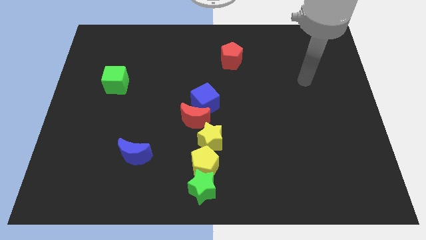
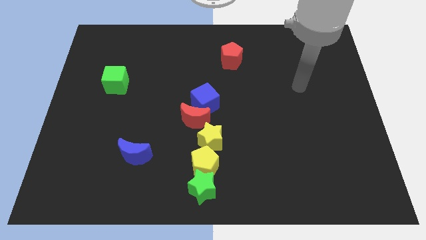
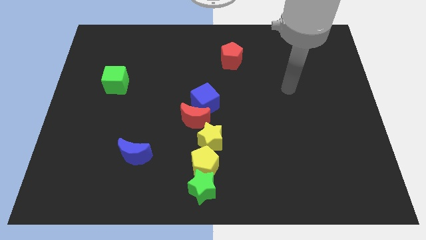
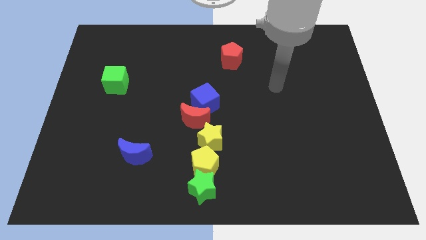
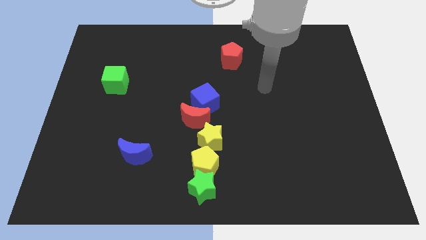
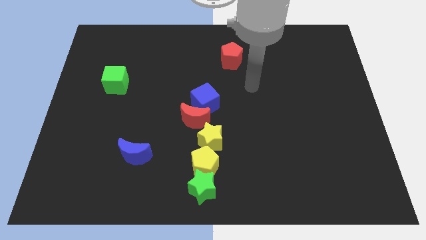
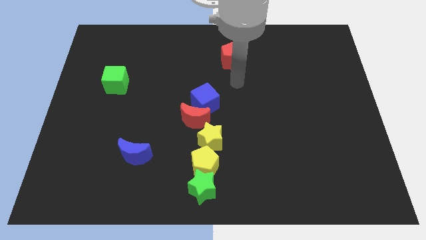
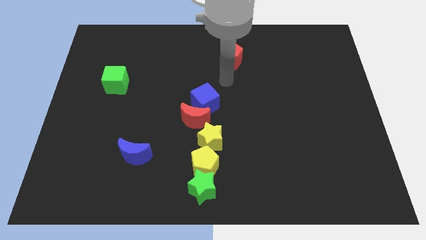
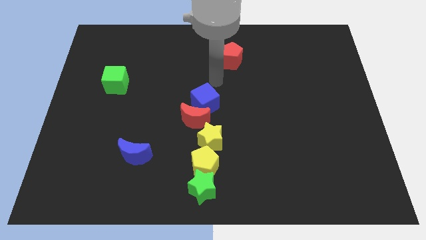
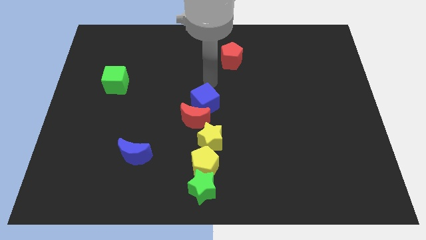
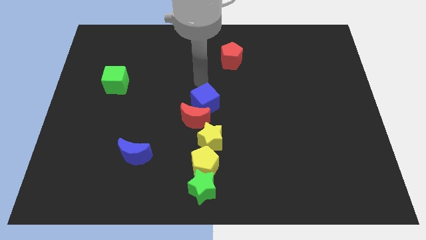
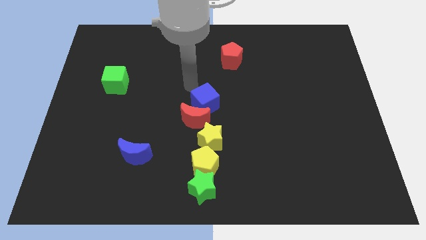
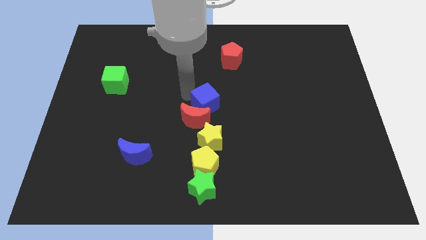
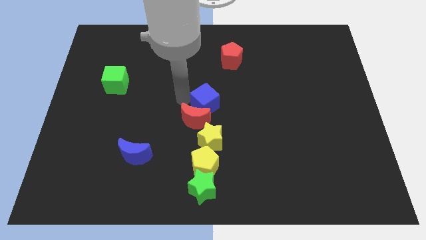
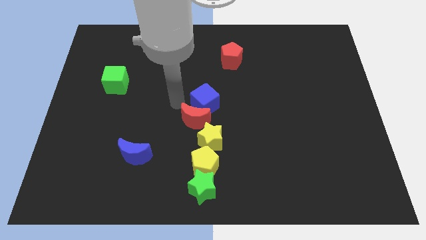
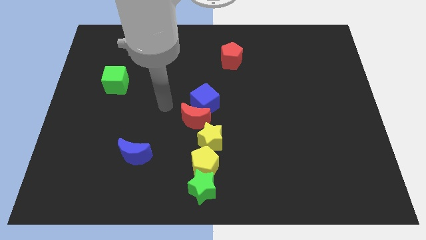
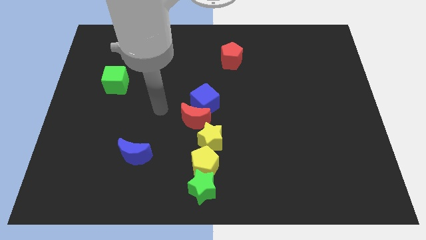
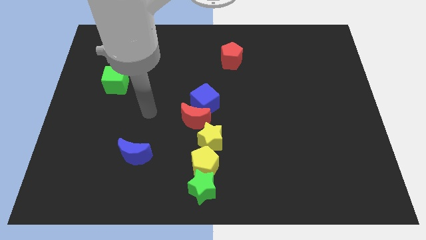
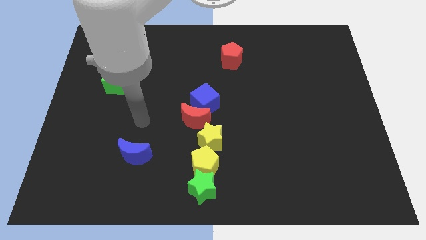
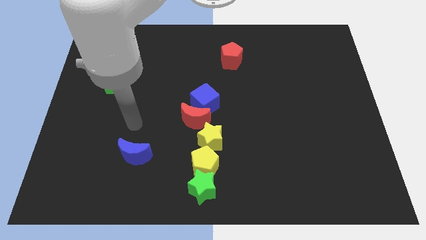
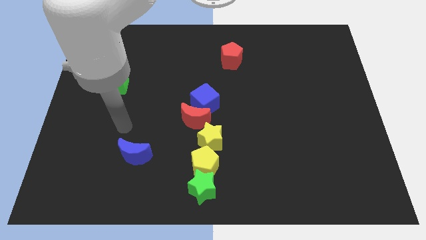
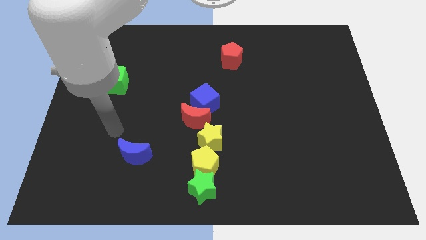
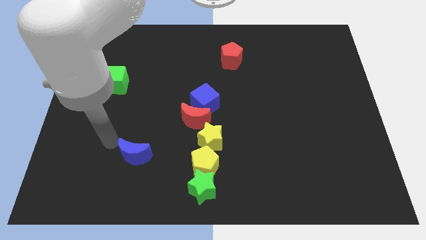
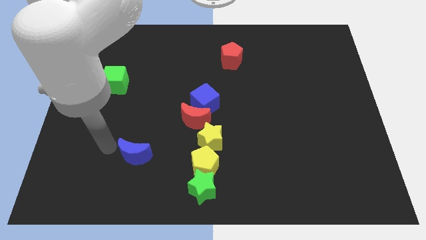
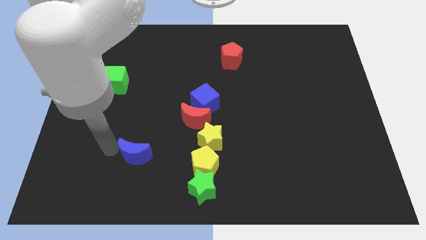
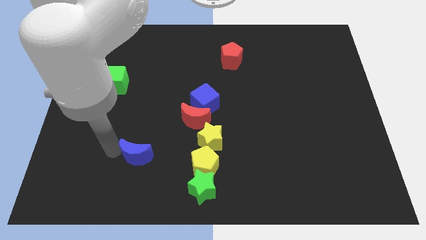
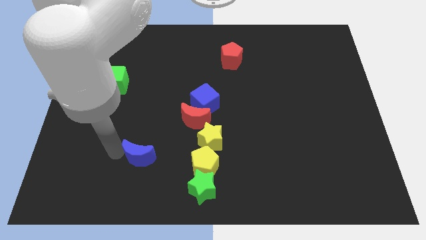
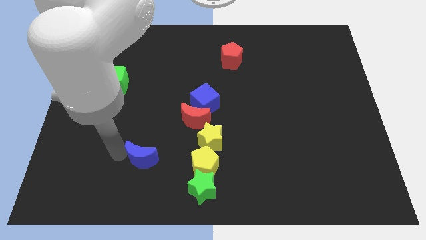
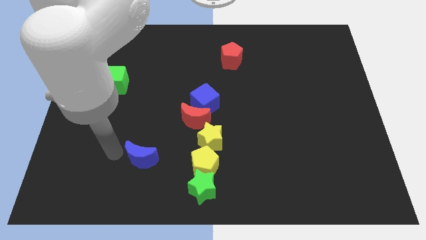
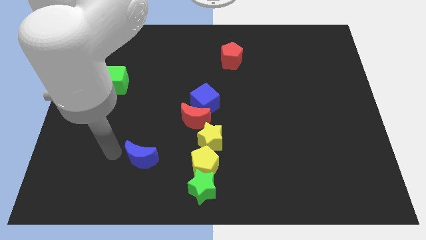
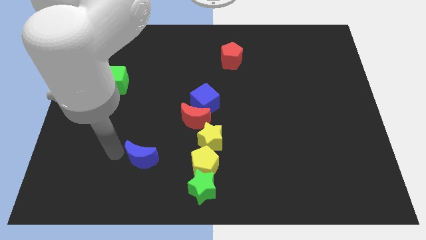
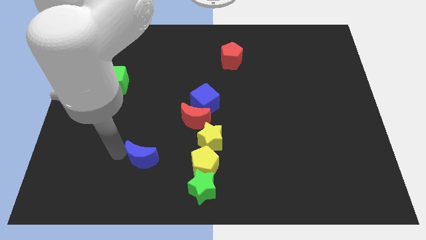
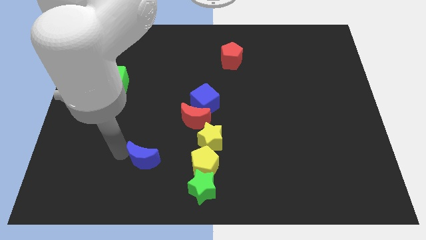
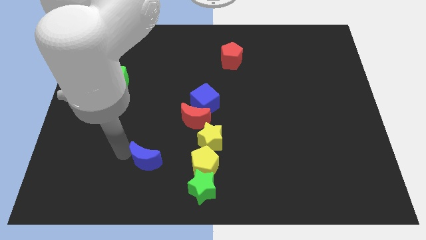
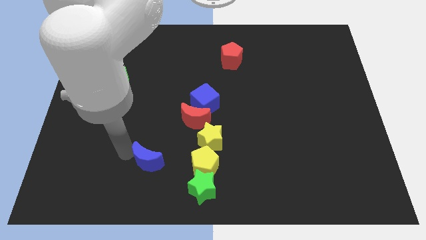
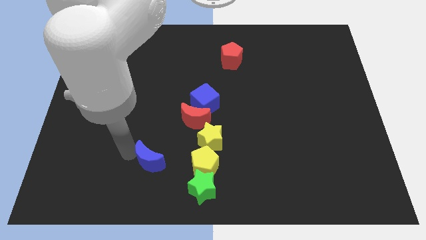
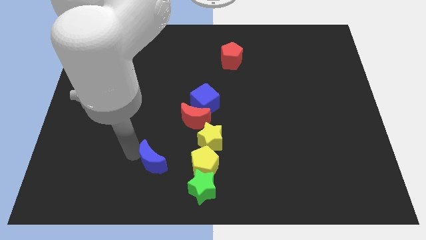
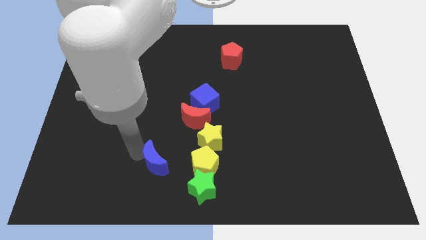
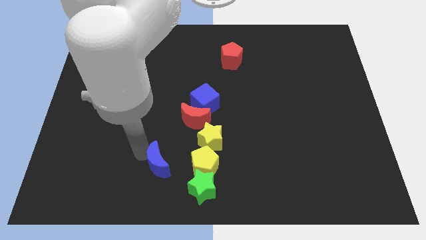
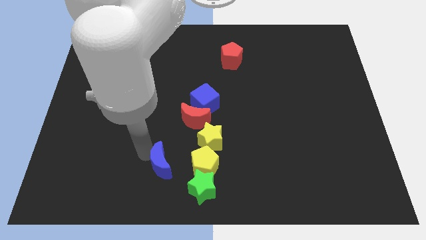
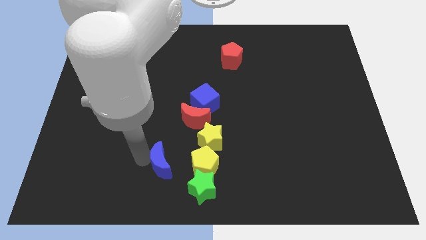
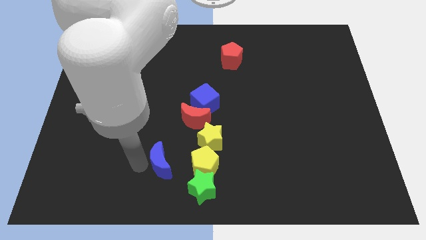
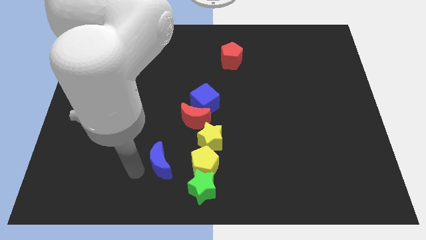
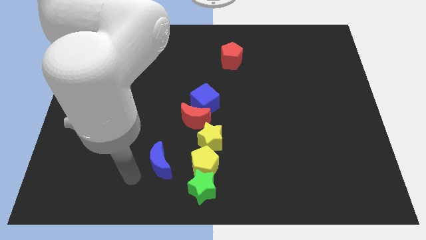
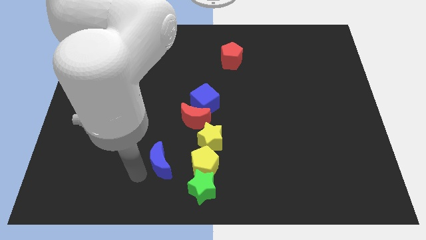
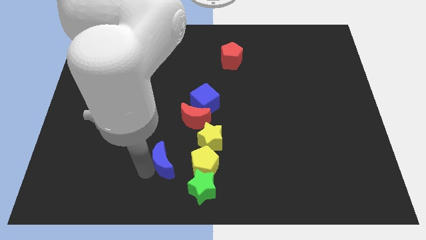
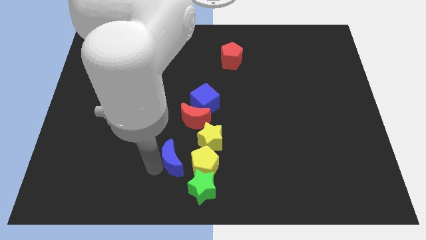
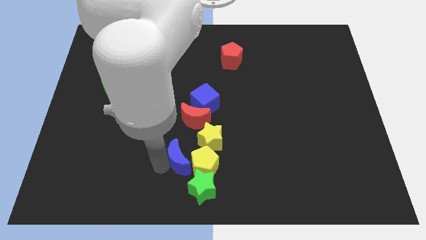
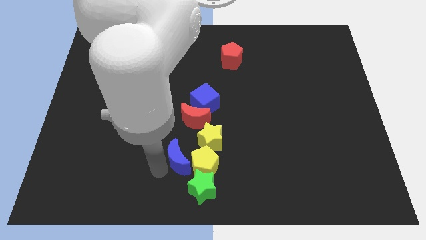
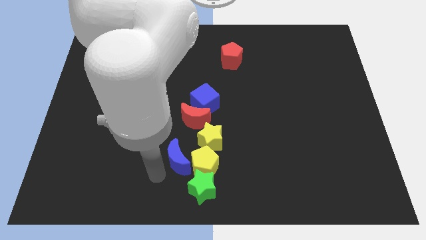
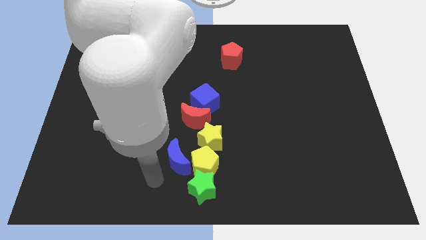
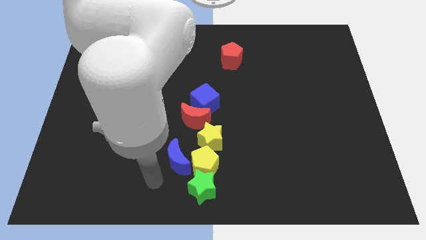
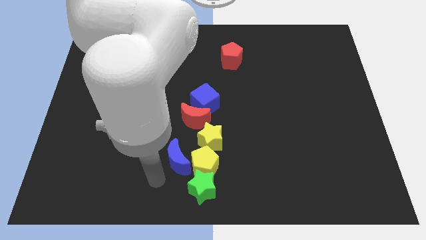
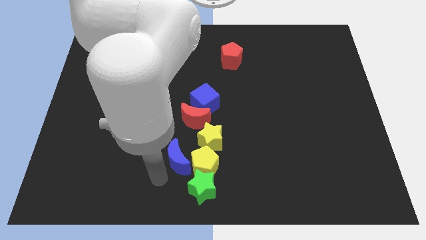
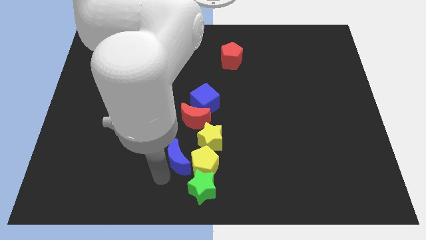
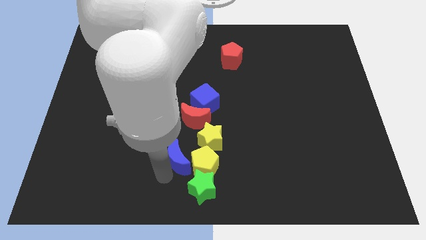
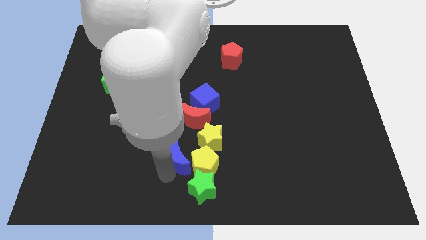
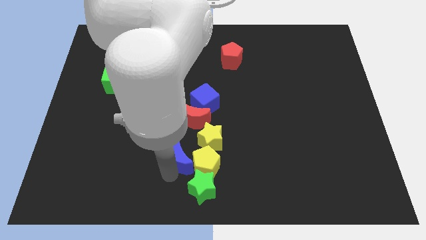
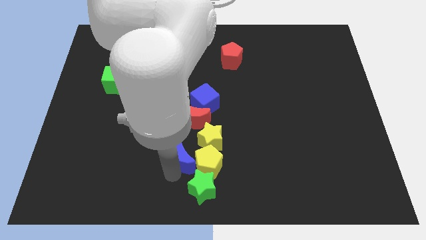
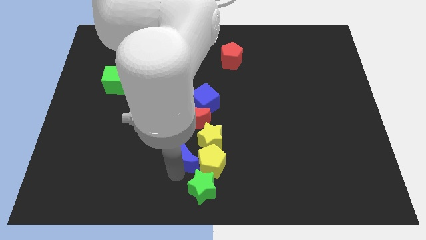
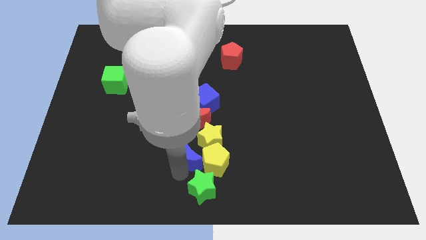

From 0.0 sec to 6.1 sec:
put the blue moon next to the yellow star

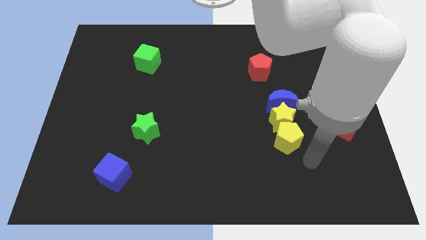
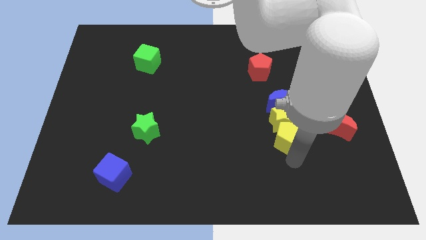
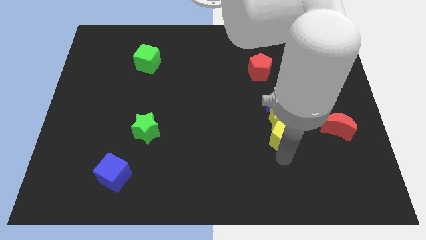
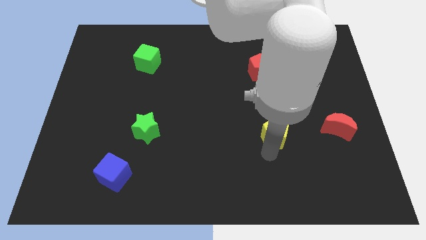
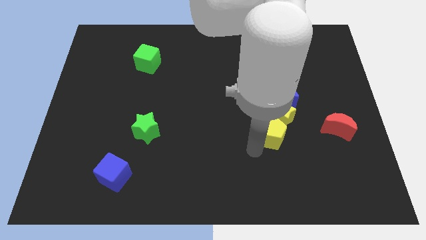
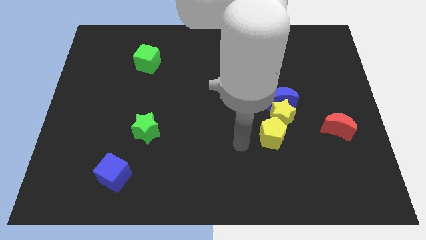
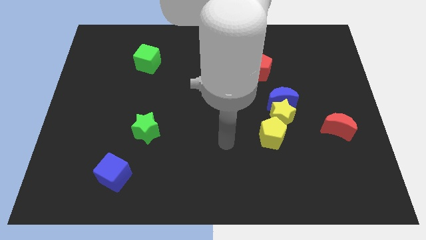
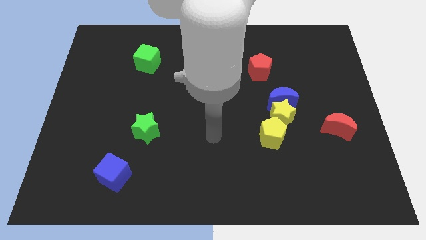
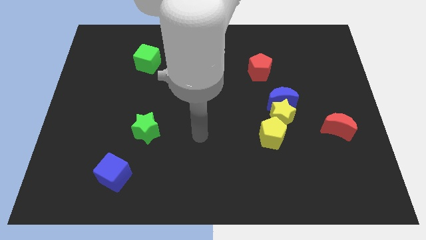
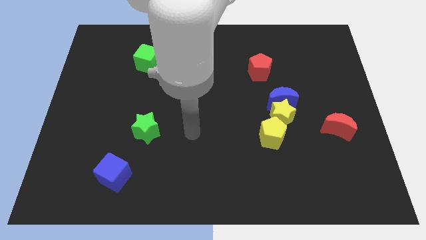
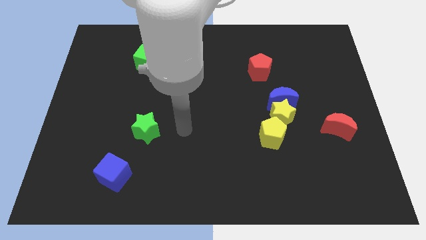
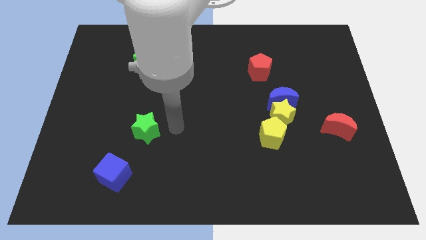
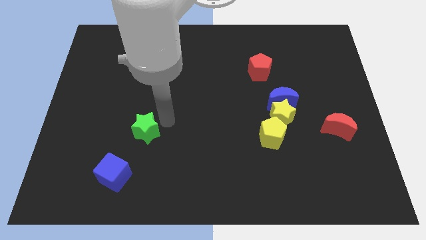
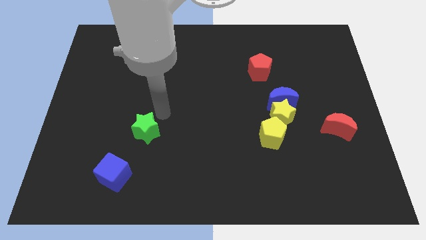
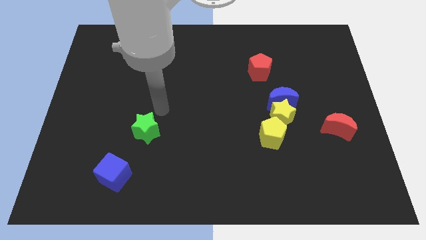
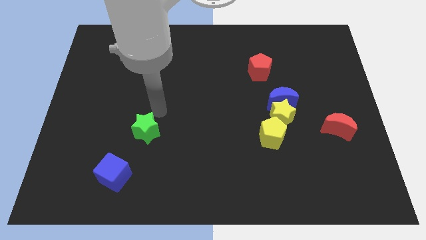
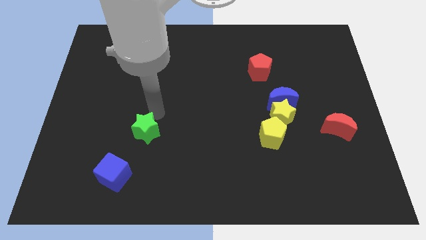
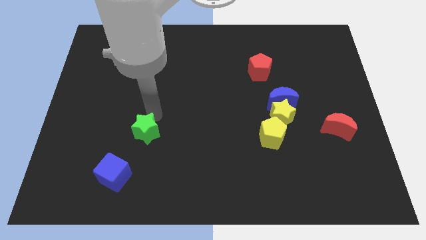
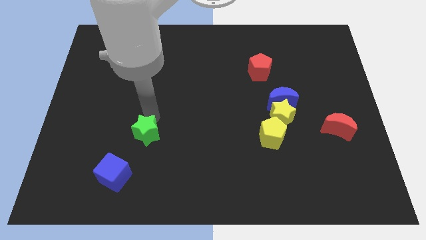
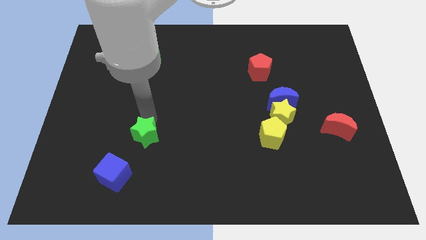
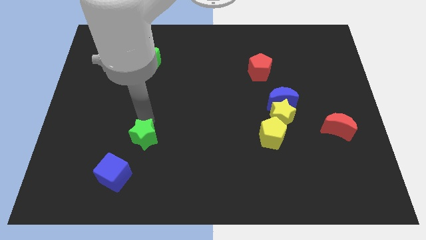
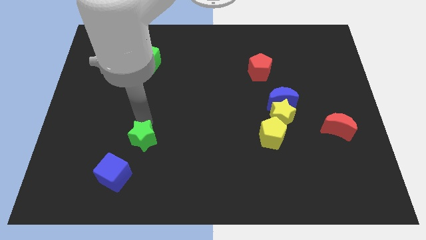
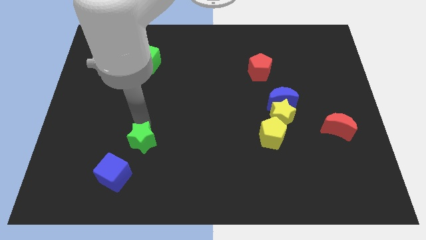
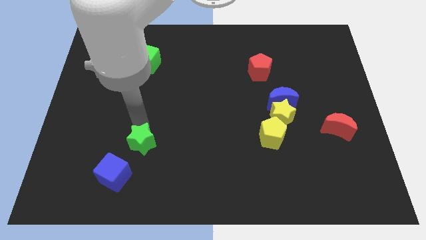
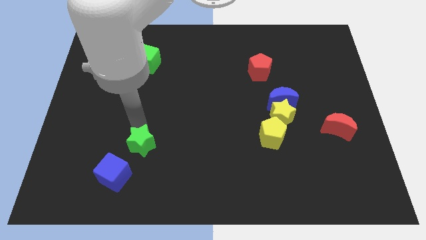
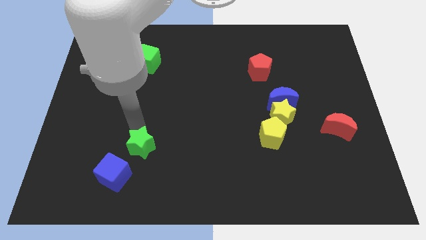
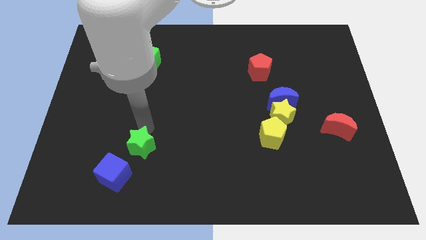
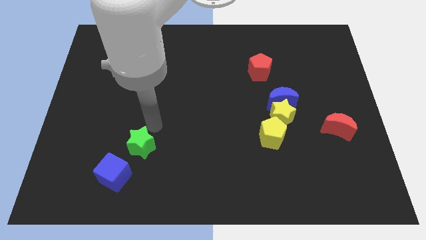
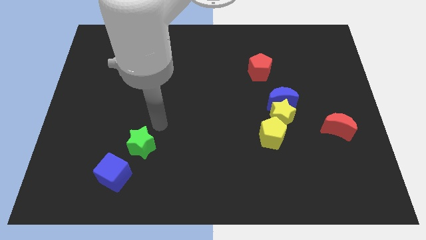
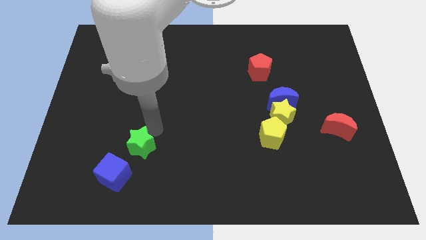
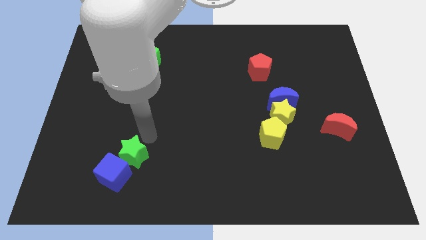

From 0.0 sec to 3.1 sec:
move the green star close to the blue cube
